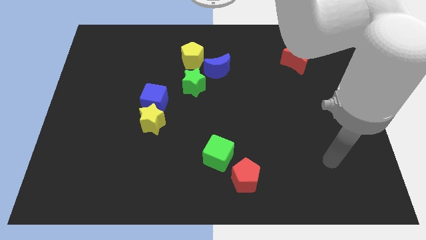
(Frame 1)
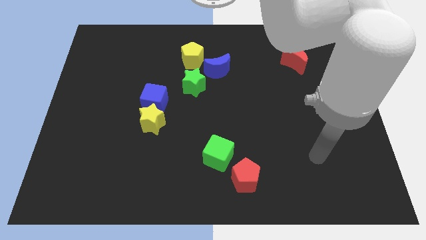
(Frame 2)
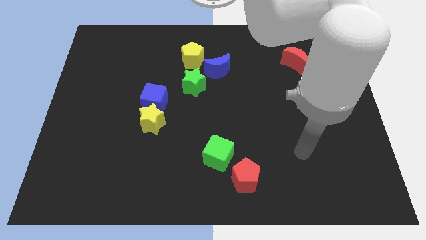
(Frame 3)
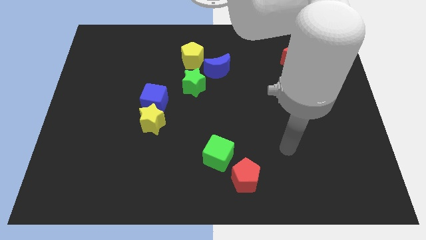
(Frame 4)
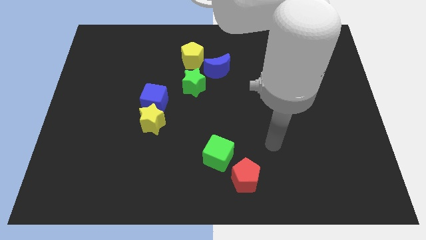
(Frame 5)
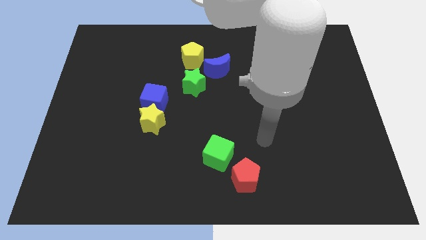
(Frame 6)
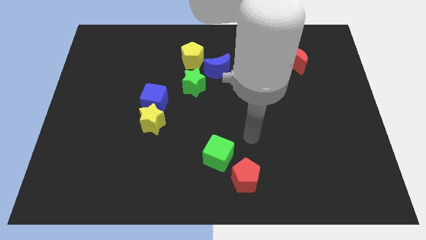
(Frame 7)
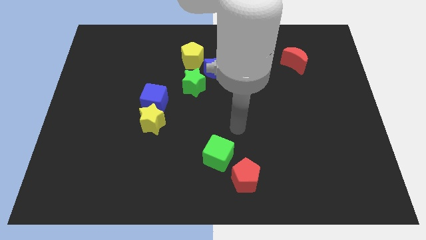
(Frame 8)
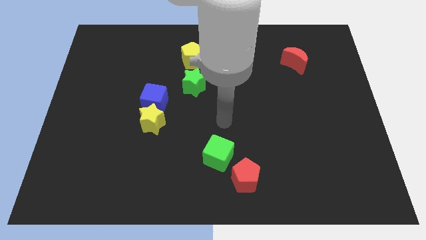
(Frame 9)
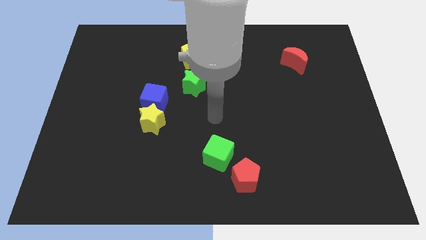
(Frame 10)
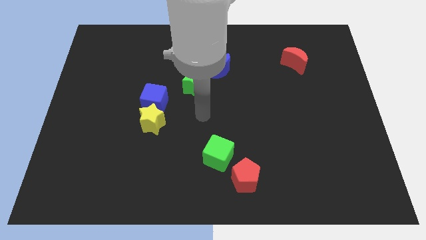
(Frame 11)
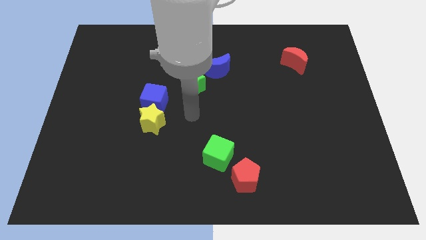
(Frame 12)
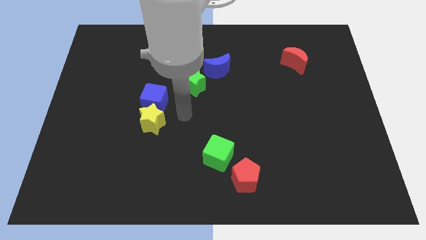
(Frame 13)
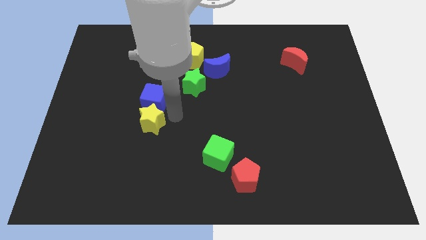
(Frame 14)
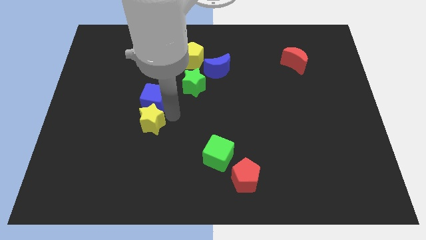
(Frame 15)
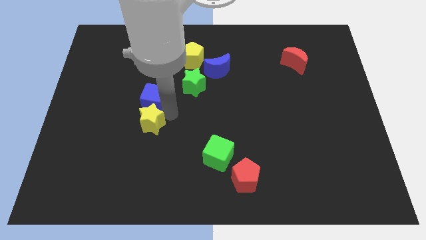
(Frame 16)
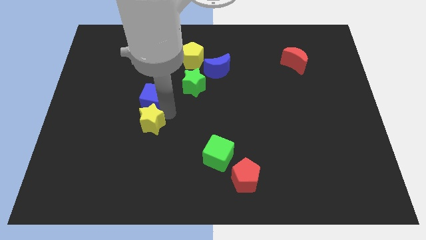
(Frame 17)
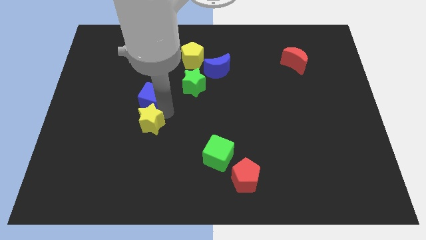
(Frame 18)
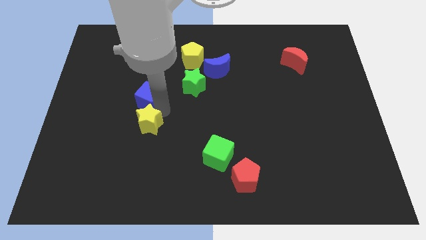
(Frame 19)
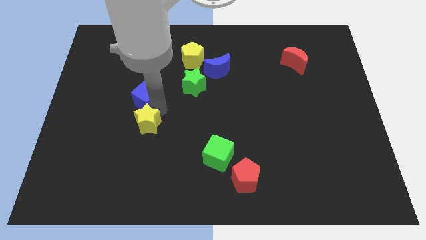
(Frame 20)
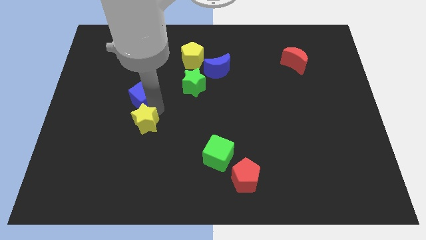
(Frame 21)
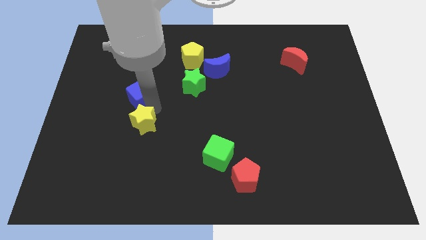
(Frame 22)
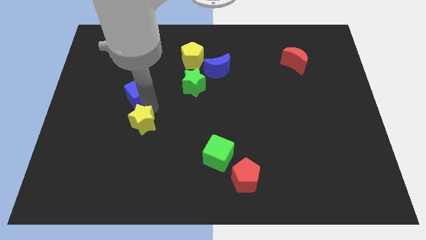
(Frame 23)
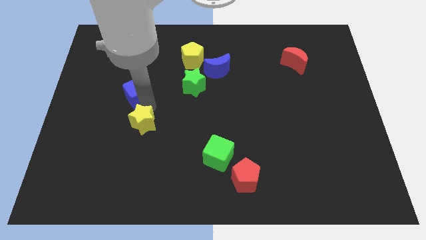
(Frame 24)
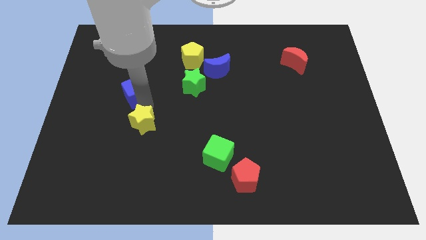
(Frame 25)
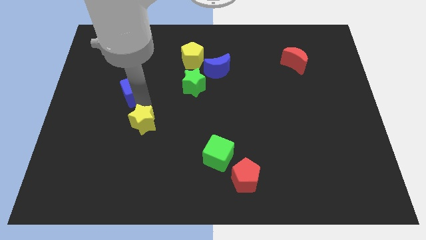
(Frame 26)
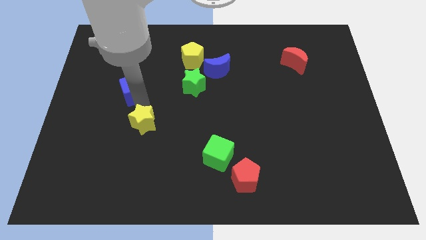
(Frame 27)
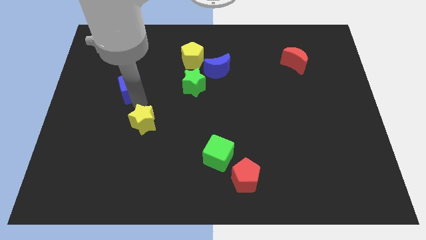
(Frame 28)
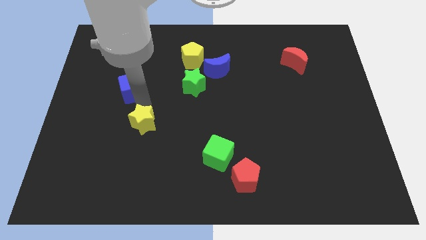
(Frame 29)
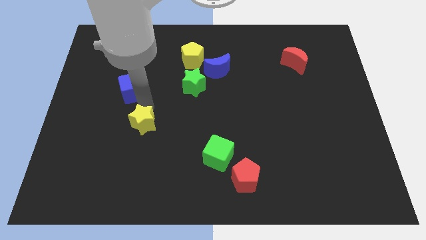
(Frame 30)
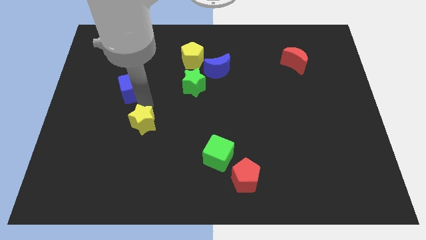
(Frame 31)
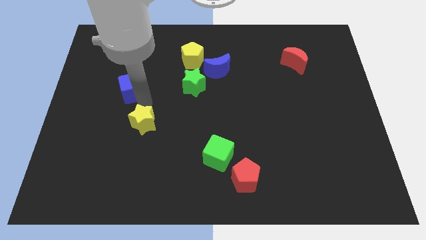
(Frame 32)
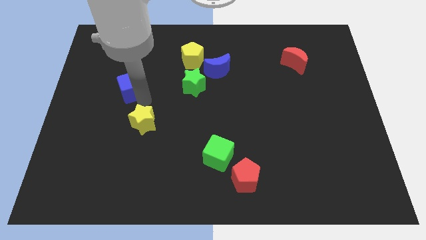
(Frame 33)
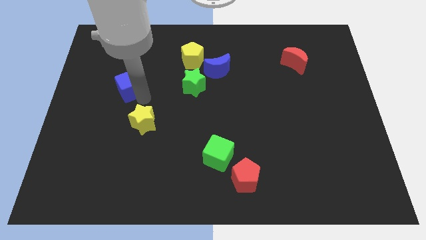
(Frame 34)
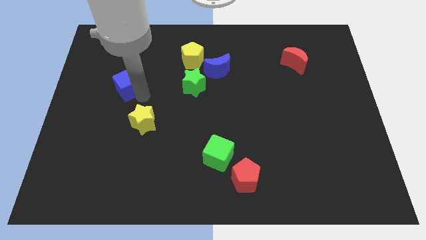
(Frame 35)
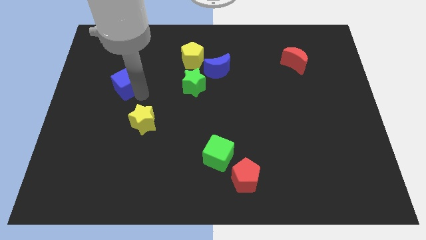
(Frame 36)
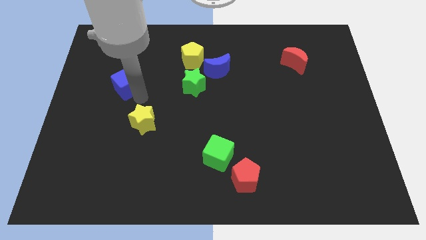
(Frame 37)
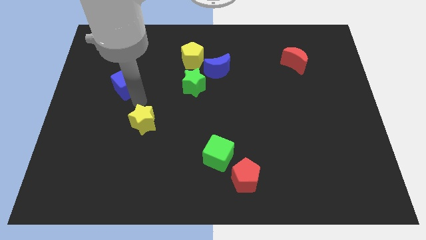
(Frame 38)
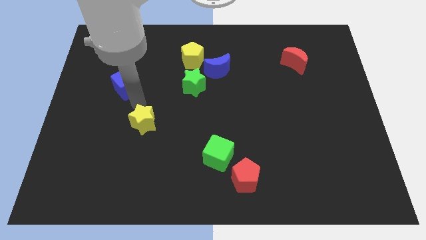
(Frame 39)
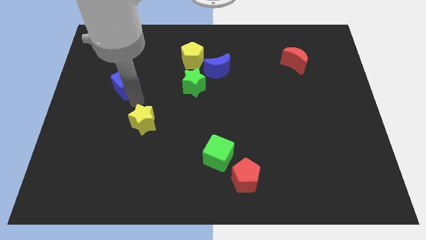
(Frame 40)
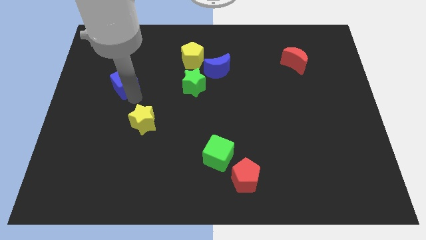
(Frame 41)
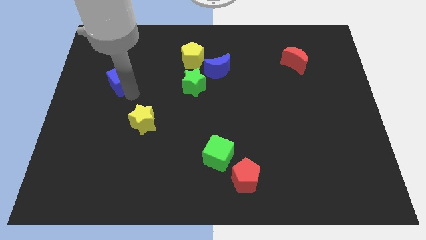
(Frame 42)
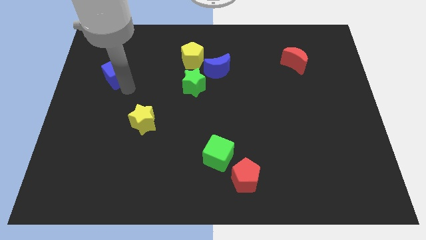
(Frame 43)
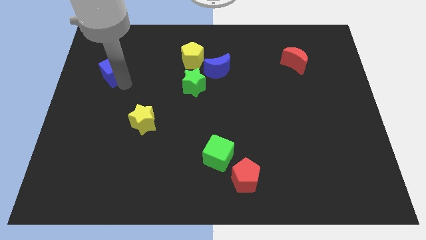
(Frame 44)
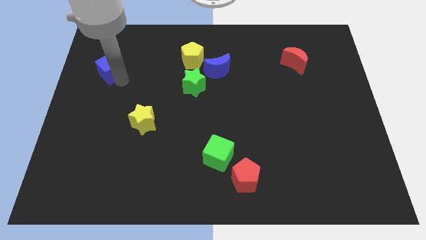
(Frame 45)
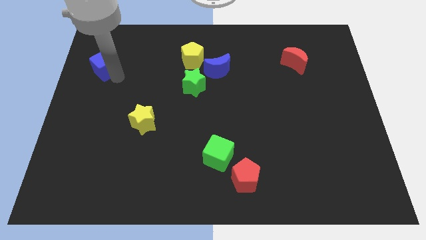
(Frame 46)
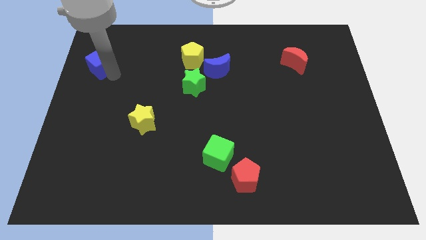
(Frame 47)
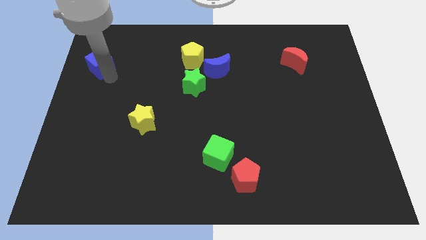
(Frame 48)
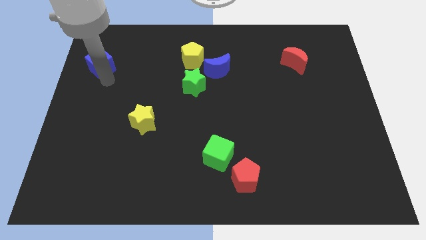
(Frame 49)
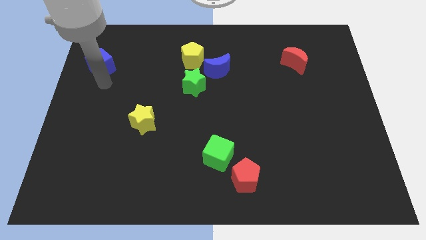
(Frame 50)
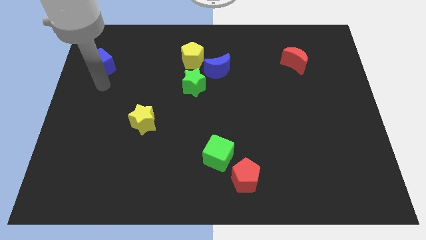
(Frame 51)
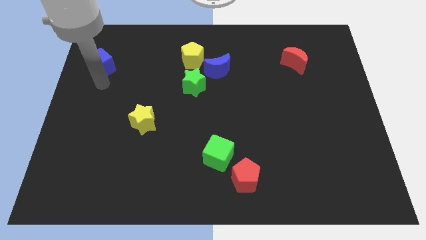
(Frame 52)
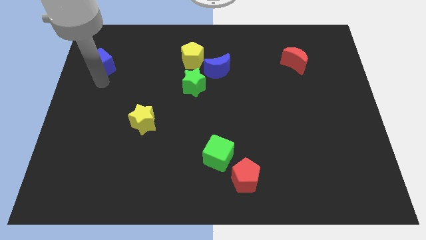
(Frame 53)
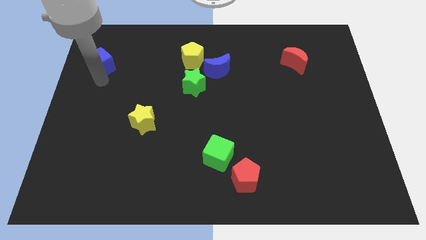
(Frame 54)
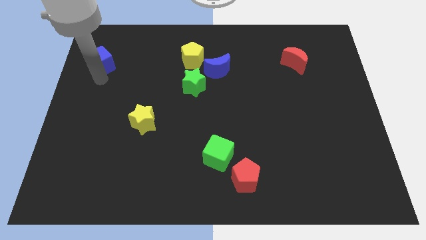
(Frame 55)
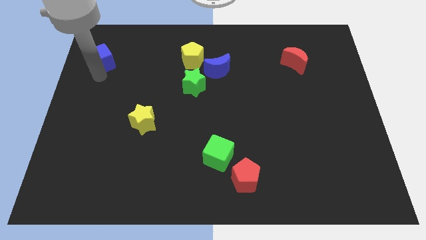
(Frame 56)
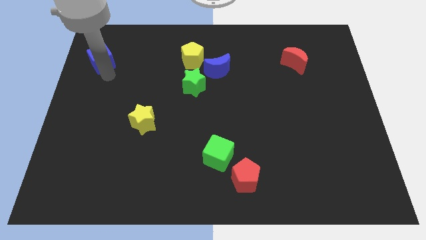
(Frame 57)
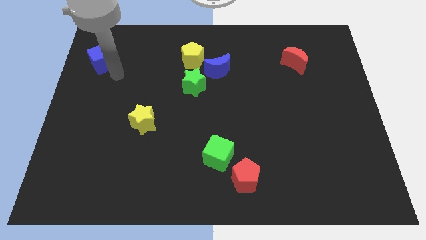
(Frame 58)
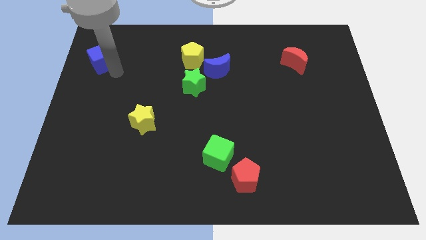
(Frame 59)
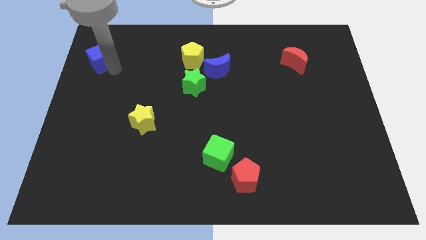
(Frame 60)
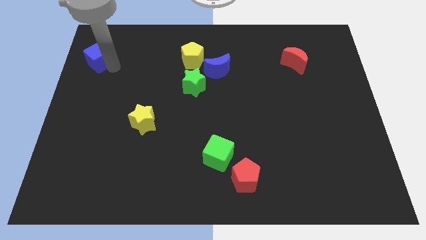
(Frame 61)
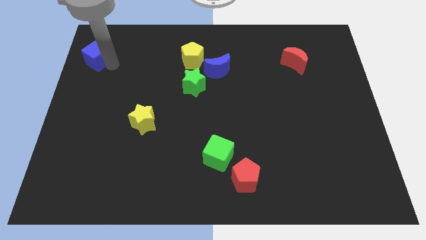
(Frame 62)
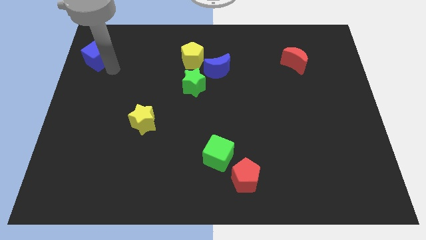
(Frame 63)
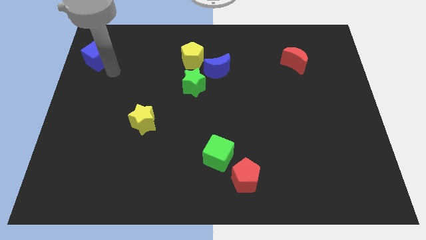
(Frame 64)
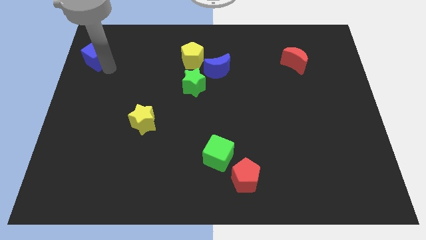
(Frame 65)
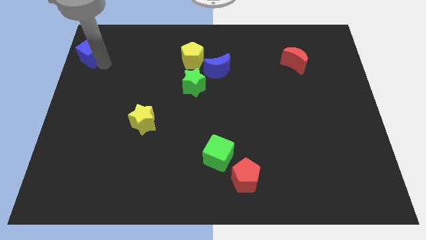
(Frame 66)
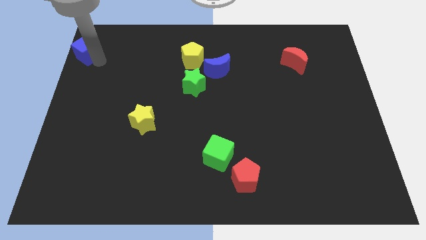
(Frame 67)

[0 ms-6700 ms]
move the blue cube to the top left corner
